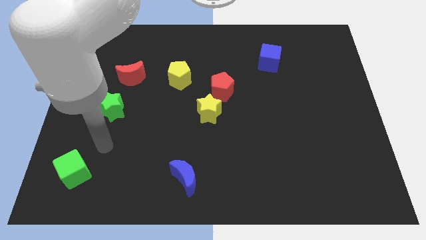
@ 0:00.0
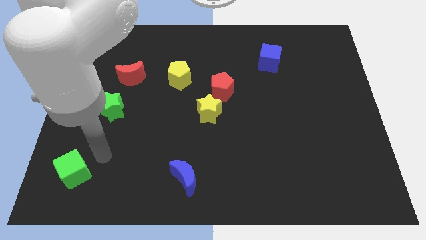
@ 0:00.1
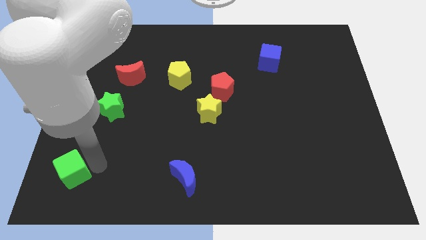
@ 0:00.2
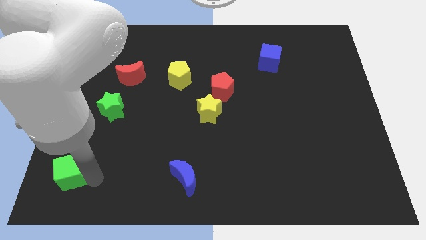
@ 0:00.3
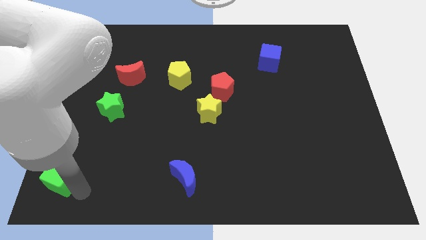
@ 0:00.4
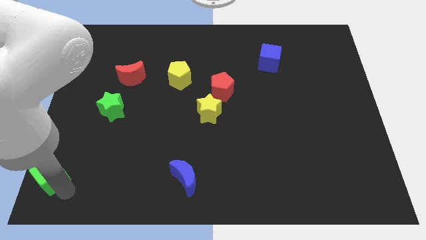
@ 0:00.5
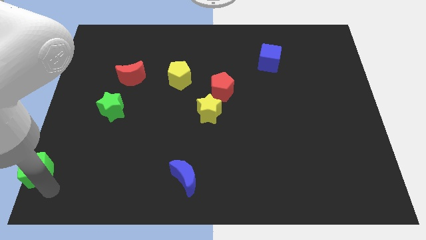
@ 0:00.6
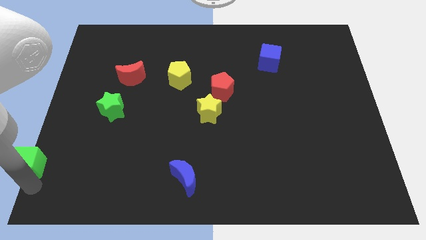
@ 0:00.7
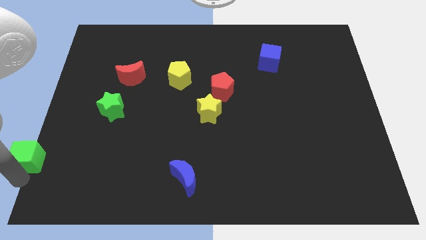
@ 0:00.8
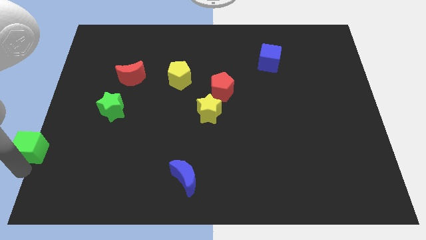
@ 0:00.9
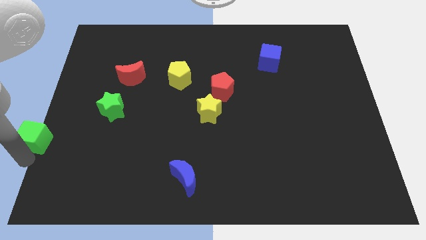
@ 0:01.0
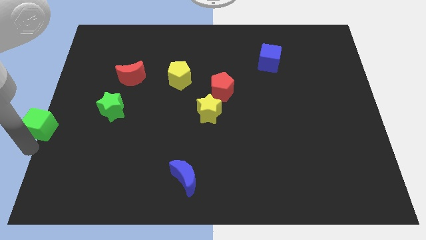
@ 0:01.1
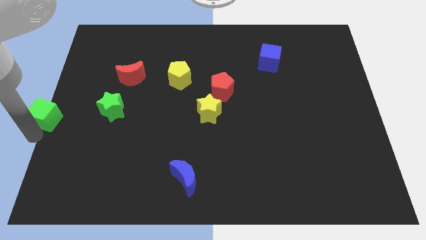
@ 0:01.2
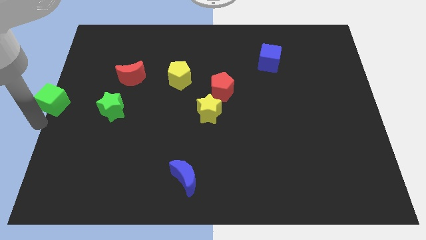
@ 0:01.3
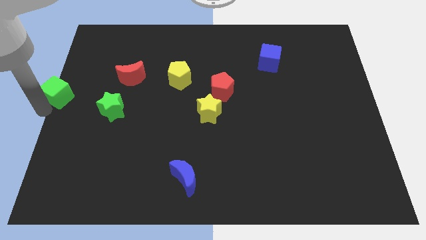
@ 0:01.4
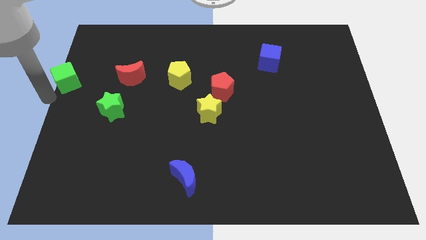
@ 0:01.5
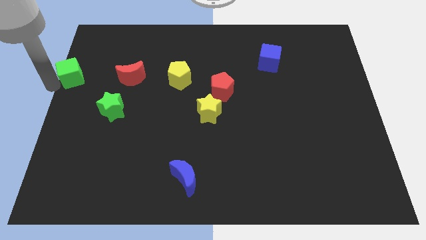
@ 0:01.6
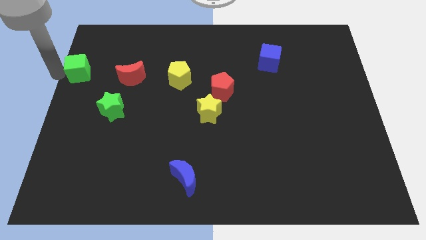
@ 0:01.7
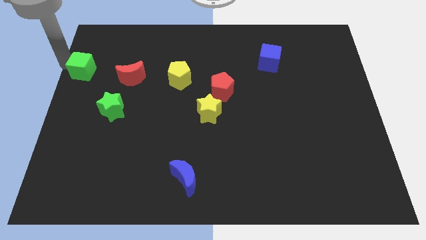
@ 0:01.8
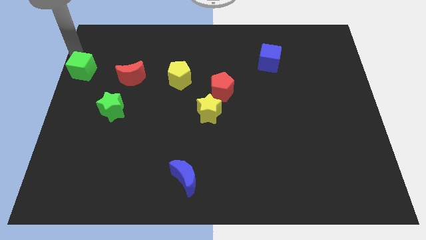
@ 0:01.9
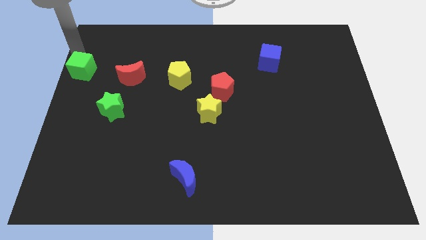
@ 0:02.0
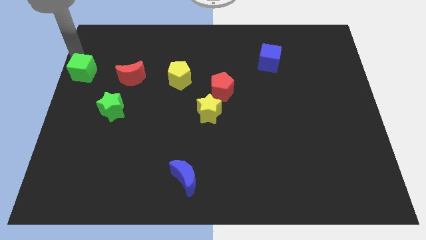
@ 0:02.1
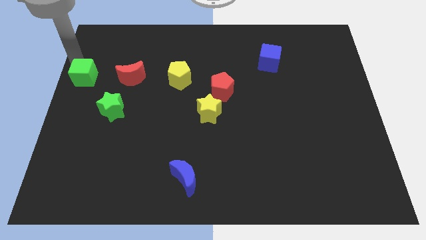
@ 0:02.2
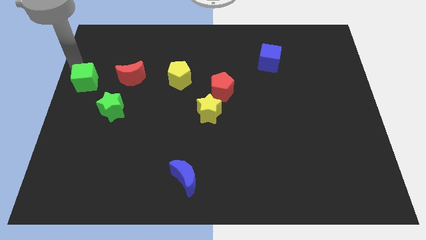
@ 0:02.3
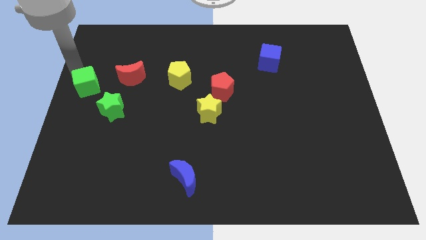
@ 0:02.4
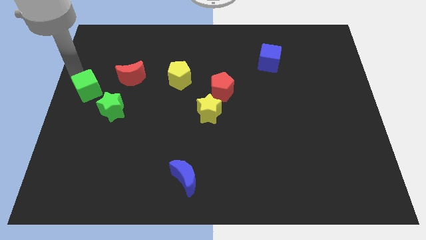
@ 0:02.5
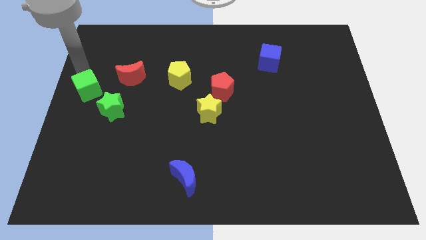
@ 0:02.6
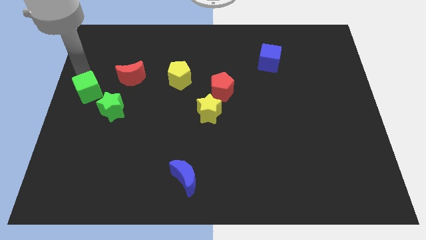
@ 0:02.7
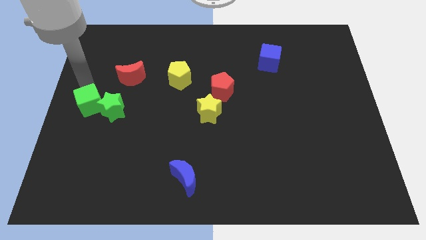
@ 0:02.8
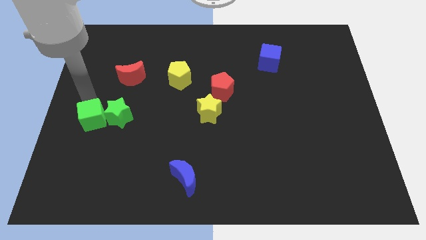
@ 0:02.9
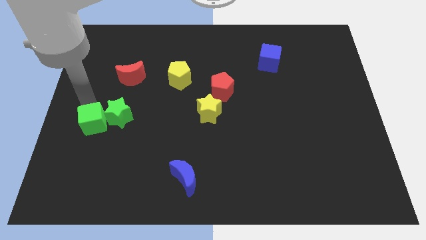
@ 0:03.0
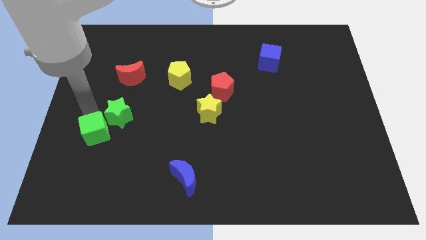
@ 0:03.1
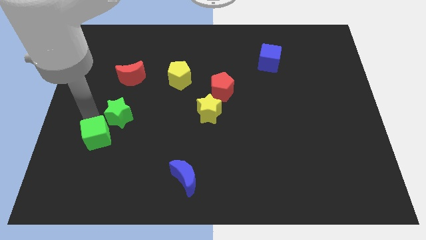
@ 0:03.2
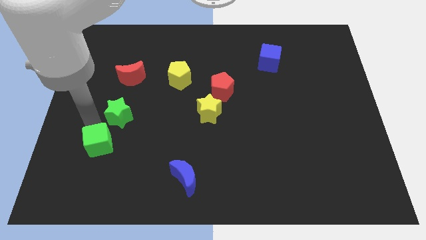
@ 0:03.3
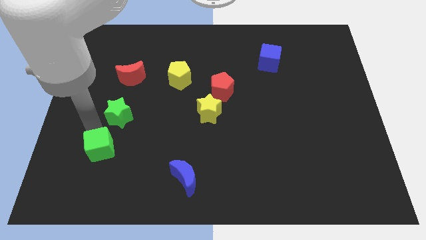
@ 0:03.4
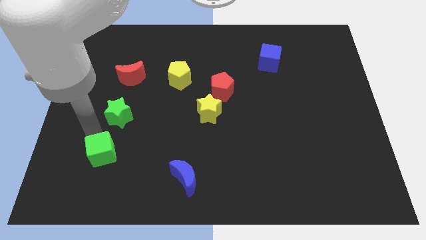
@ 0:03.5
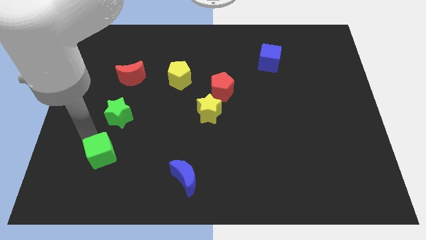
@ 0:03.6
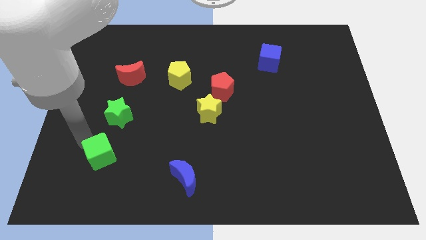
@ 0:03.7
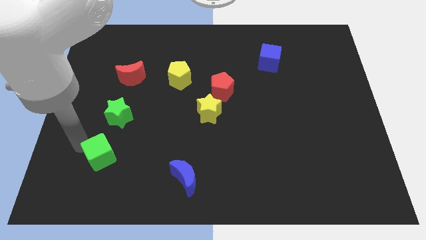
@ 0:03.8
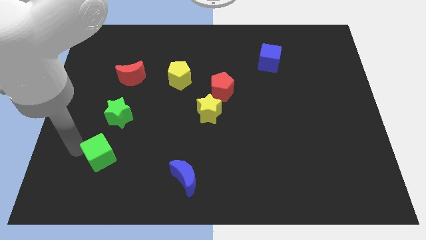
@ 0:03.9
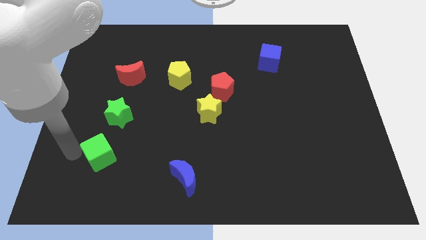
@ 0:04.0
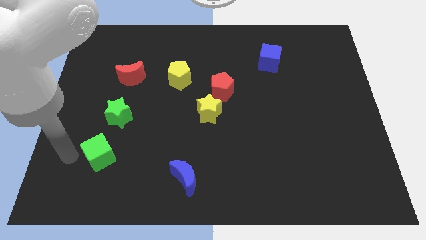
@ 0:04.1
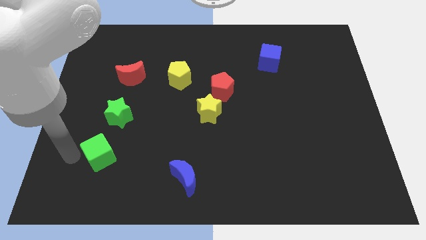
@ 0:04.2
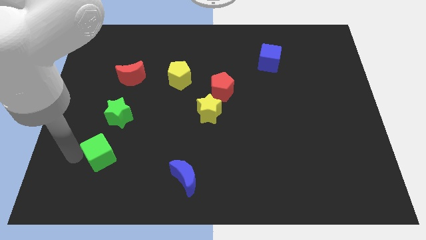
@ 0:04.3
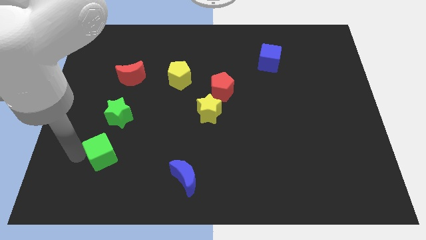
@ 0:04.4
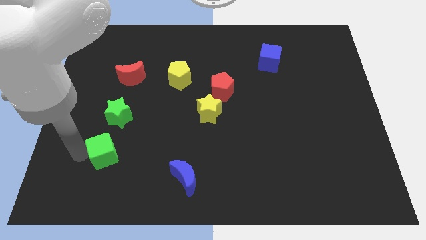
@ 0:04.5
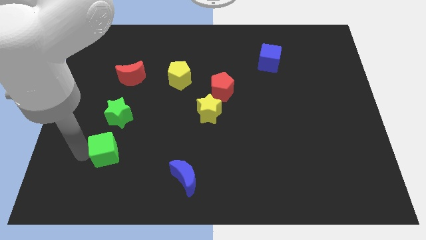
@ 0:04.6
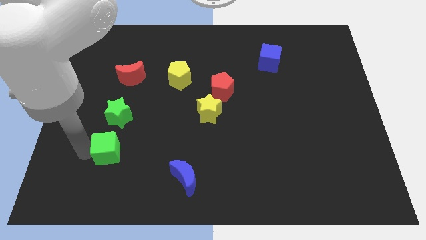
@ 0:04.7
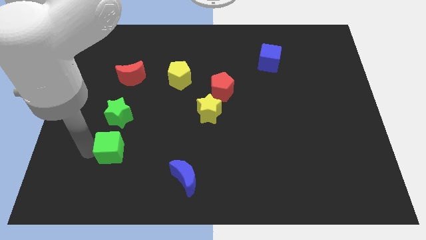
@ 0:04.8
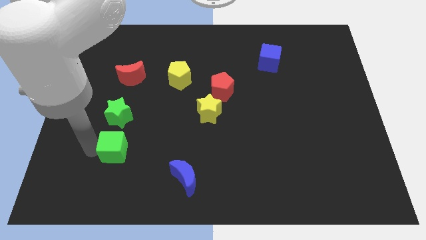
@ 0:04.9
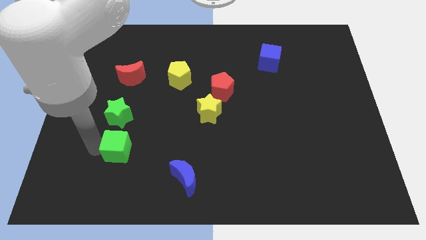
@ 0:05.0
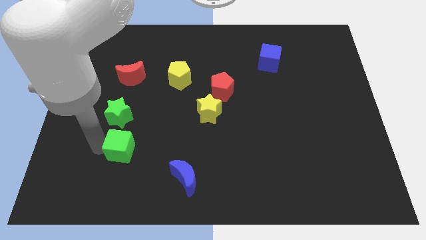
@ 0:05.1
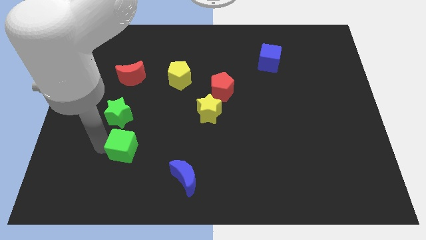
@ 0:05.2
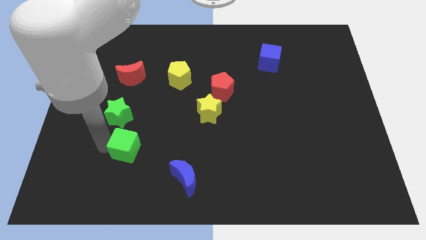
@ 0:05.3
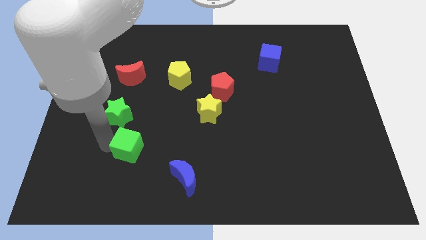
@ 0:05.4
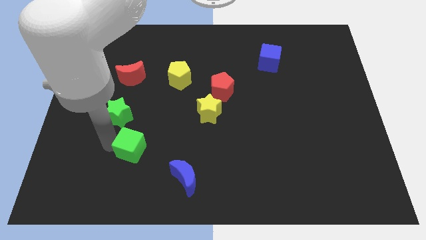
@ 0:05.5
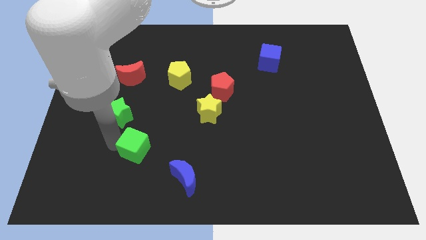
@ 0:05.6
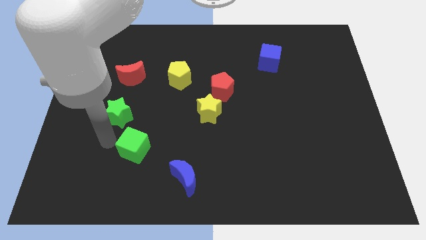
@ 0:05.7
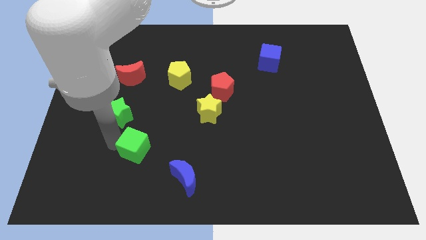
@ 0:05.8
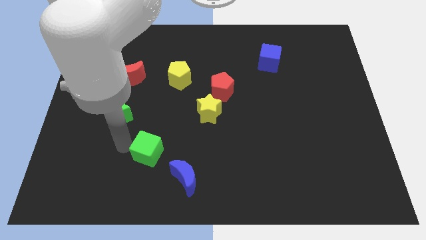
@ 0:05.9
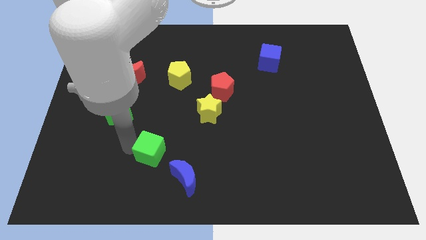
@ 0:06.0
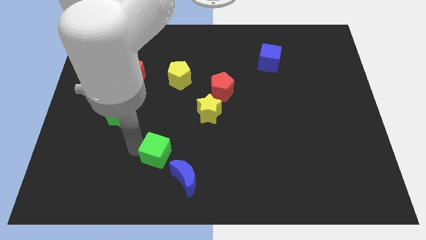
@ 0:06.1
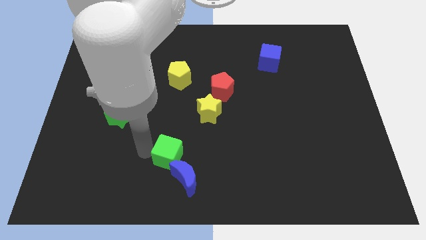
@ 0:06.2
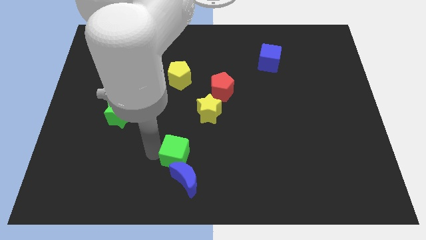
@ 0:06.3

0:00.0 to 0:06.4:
slide the green cube right

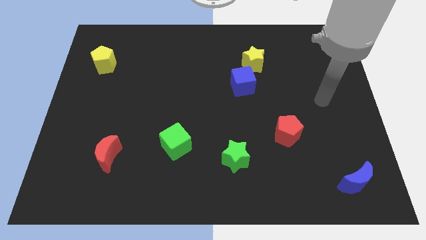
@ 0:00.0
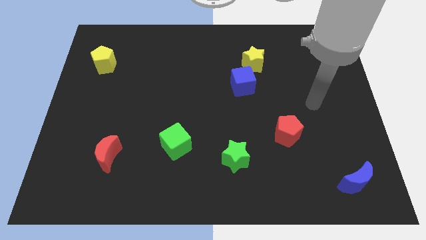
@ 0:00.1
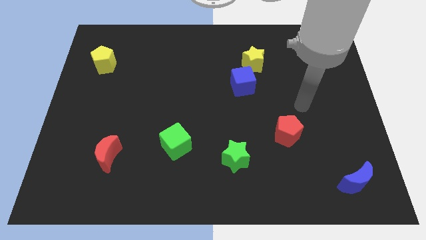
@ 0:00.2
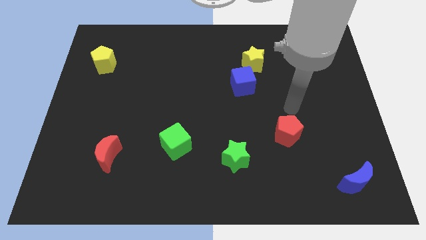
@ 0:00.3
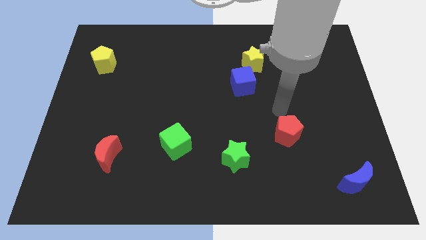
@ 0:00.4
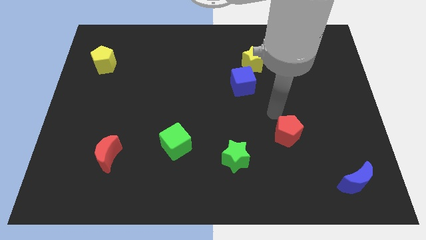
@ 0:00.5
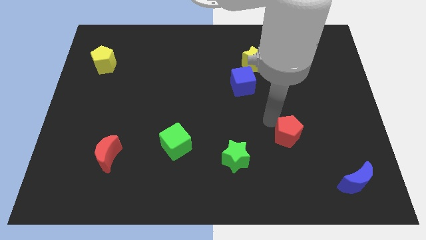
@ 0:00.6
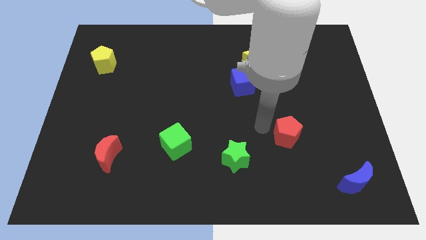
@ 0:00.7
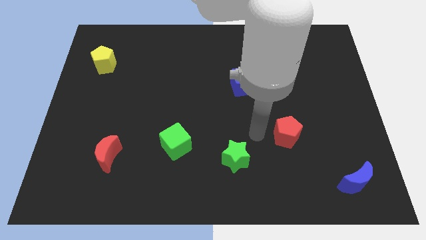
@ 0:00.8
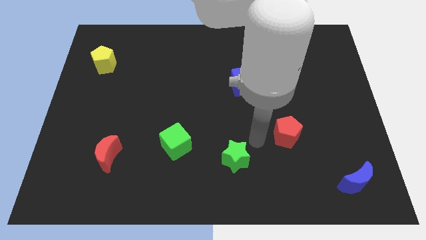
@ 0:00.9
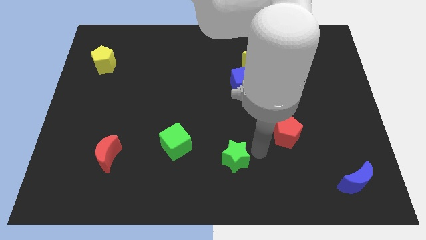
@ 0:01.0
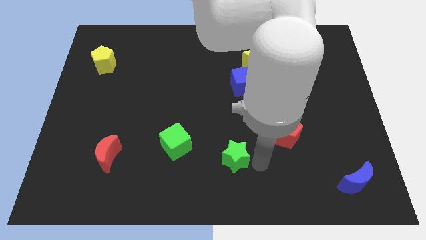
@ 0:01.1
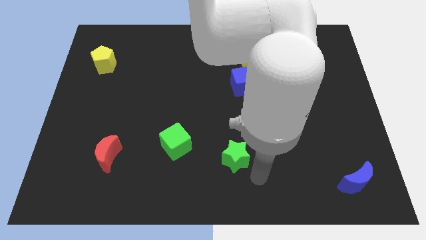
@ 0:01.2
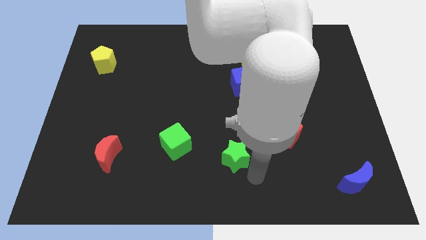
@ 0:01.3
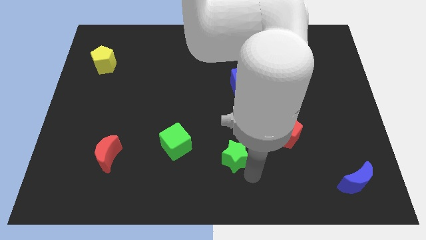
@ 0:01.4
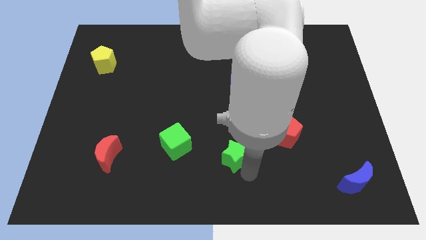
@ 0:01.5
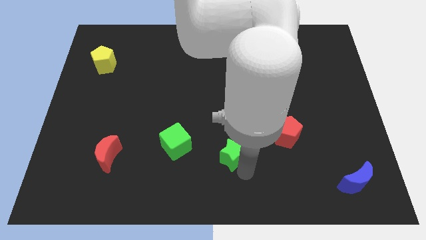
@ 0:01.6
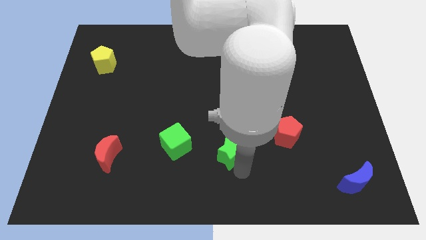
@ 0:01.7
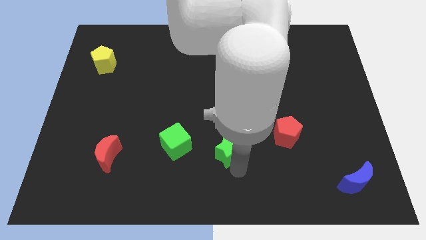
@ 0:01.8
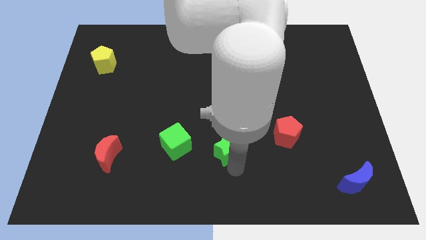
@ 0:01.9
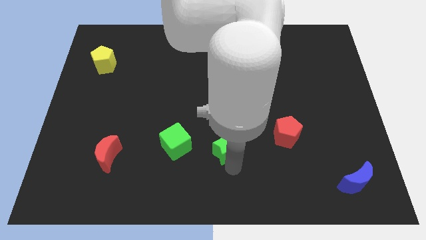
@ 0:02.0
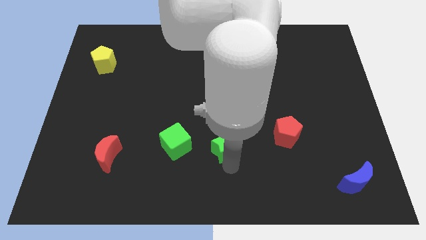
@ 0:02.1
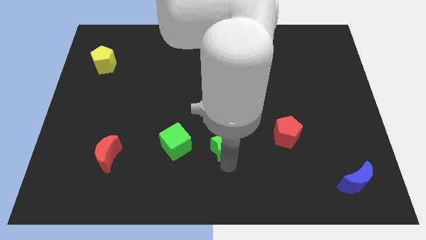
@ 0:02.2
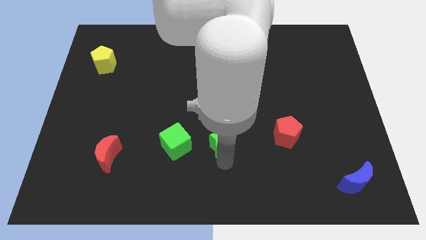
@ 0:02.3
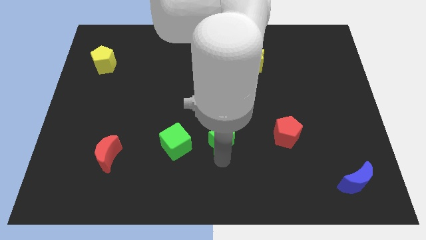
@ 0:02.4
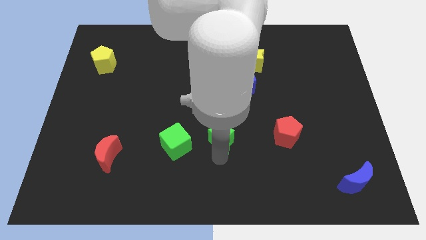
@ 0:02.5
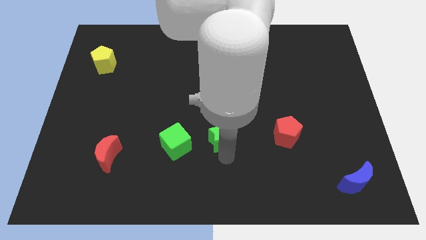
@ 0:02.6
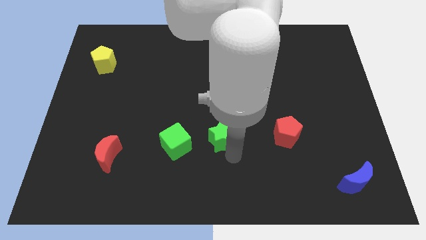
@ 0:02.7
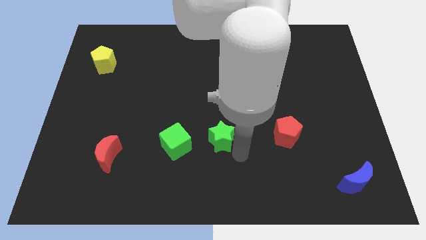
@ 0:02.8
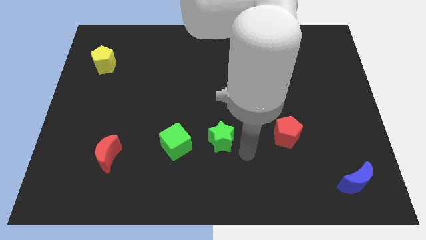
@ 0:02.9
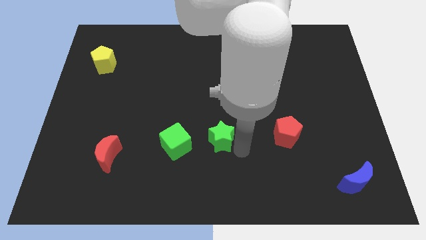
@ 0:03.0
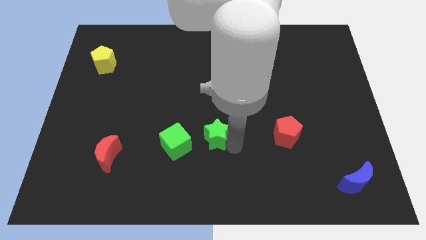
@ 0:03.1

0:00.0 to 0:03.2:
slide the green star upwards and then left slightly
